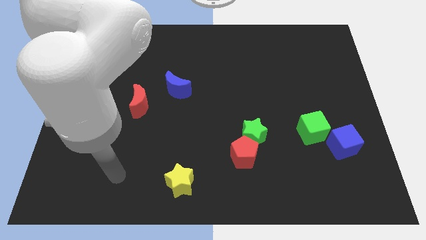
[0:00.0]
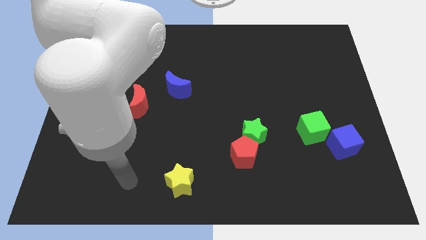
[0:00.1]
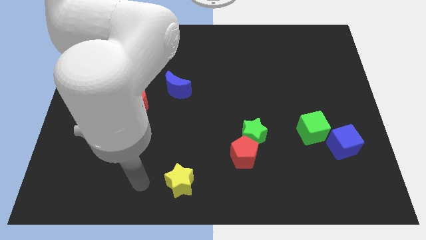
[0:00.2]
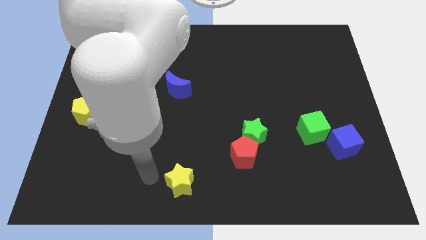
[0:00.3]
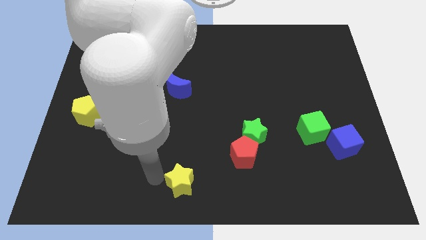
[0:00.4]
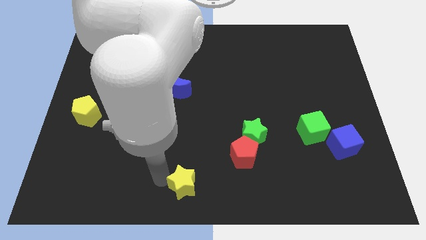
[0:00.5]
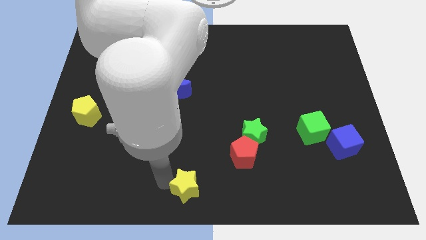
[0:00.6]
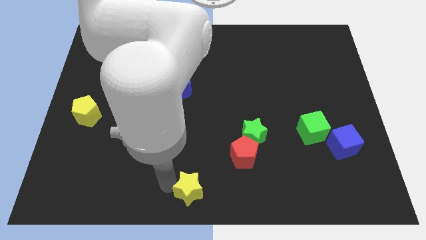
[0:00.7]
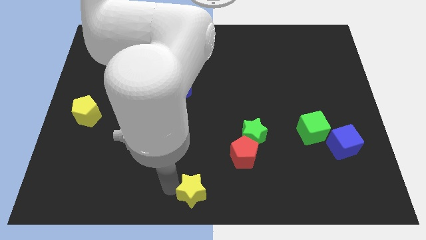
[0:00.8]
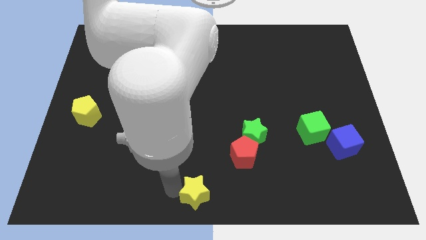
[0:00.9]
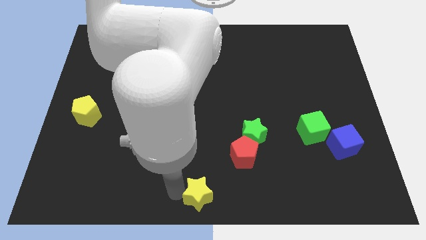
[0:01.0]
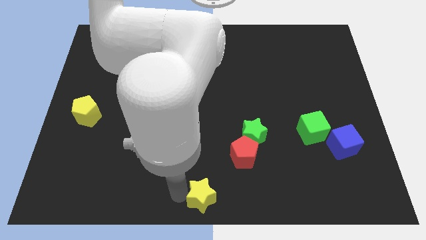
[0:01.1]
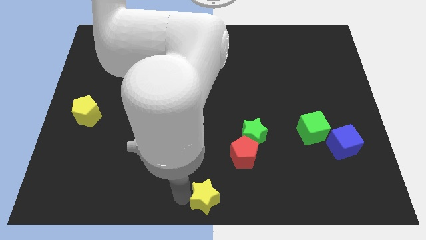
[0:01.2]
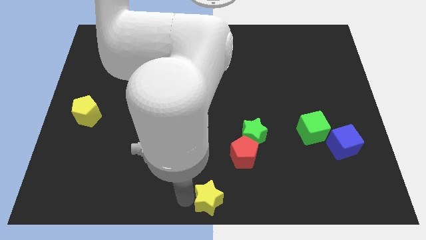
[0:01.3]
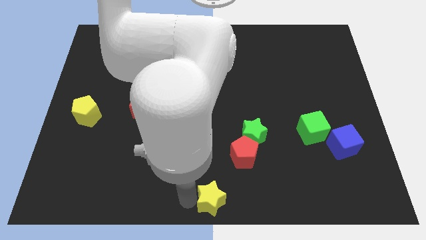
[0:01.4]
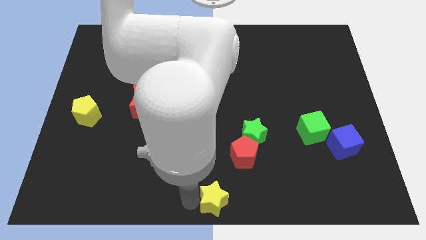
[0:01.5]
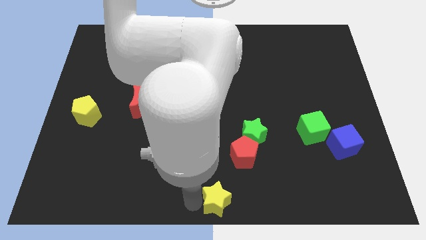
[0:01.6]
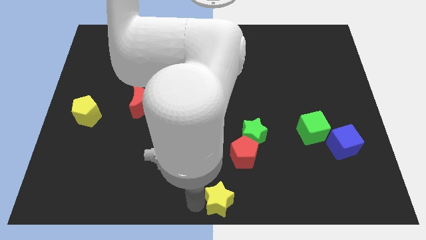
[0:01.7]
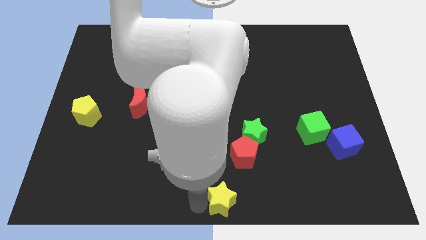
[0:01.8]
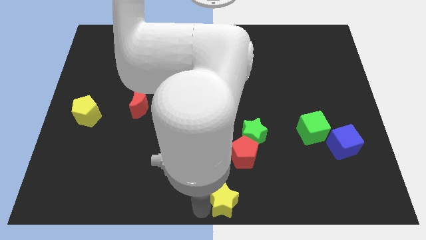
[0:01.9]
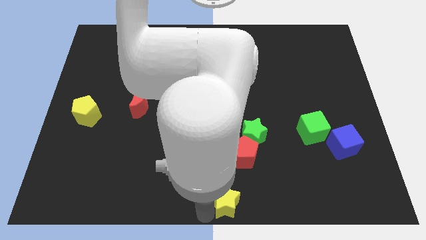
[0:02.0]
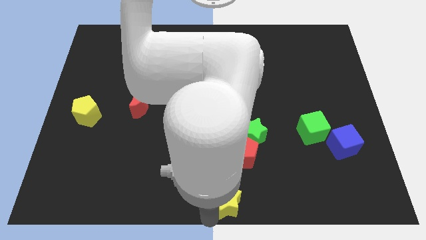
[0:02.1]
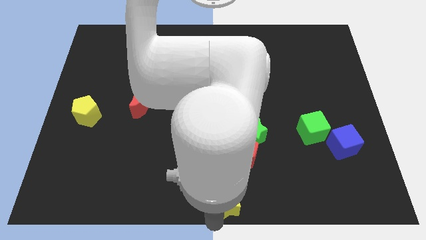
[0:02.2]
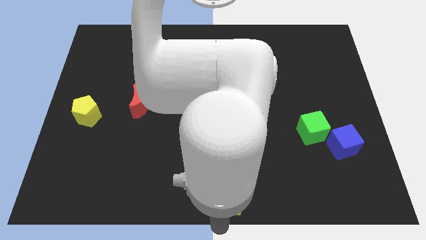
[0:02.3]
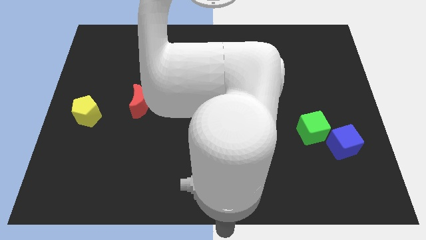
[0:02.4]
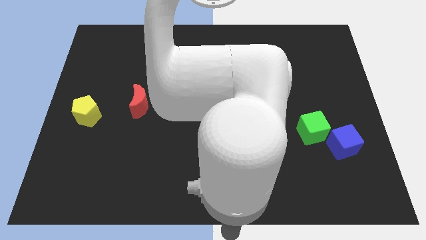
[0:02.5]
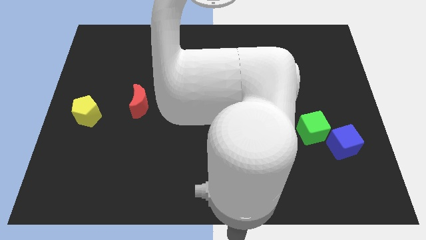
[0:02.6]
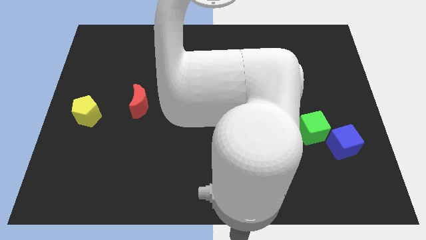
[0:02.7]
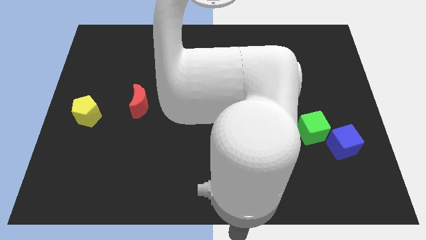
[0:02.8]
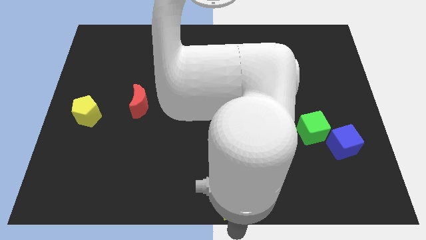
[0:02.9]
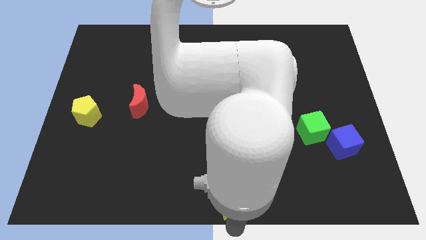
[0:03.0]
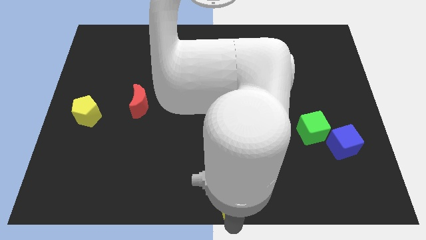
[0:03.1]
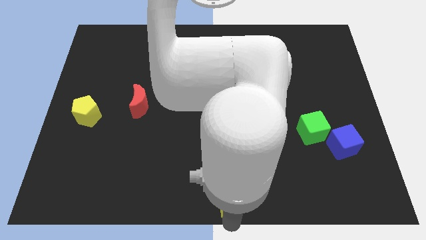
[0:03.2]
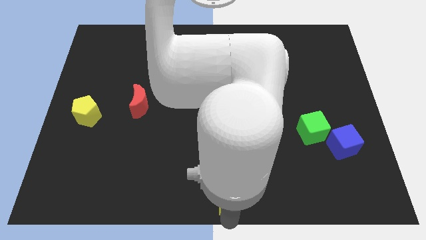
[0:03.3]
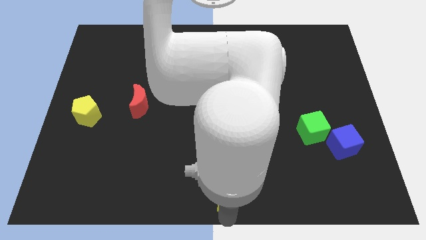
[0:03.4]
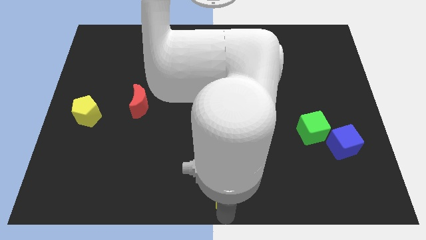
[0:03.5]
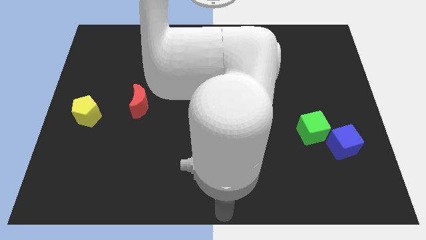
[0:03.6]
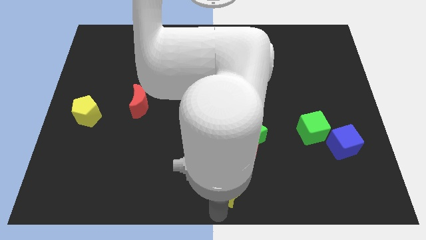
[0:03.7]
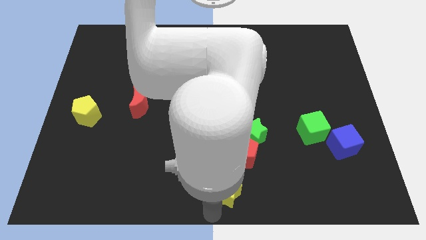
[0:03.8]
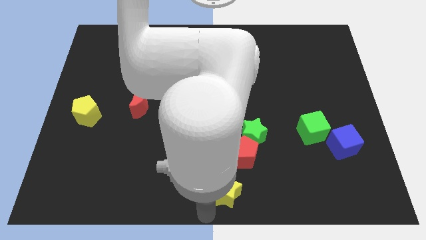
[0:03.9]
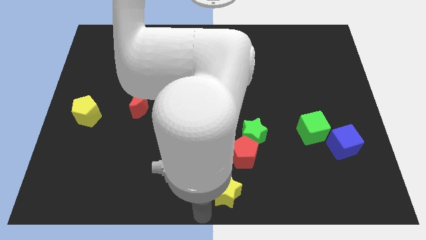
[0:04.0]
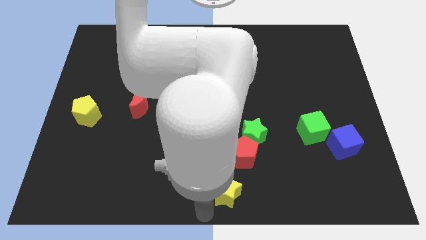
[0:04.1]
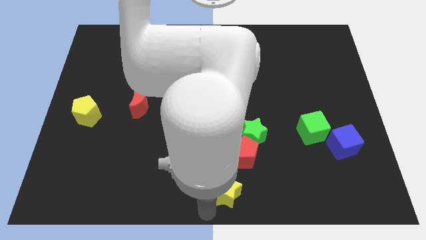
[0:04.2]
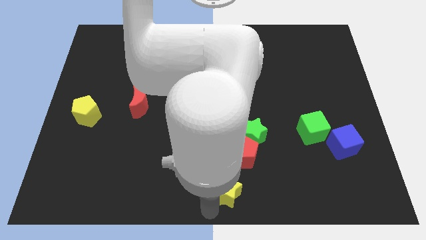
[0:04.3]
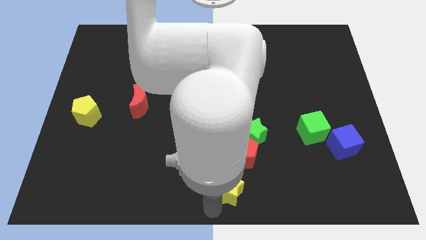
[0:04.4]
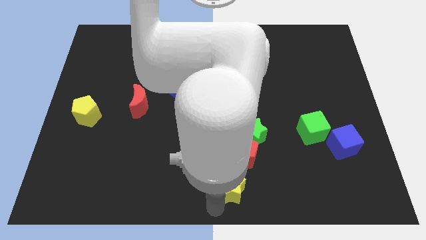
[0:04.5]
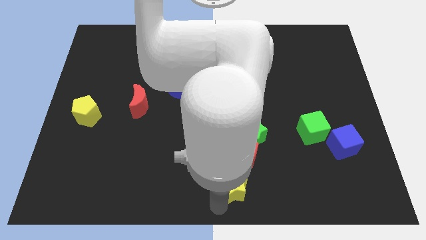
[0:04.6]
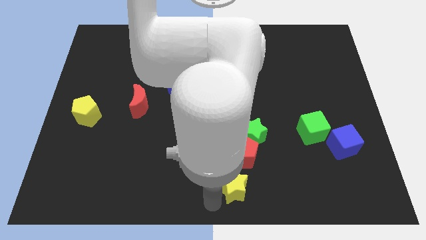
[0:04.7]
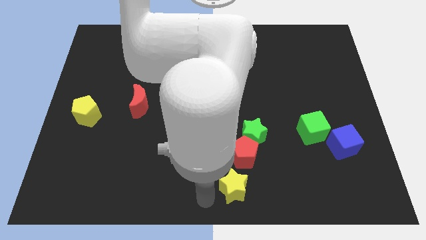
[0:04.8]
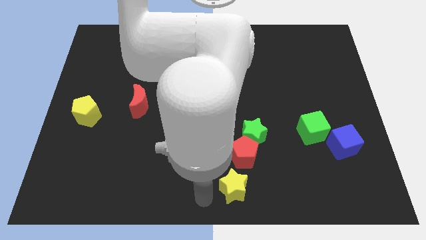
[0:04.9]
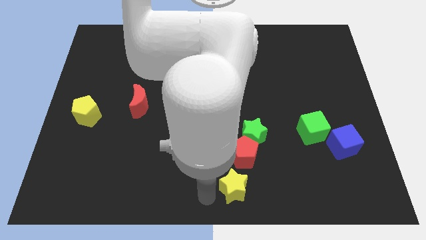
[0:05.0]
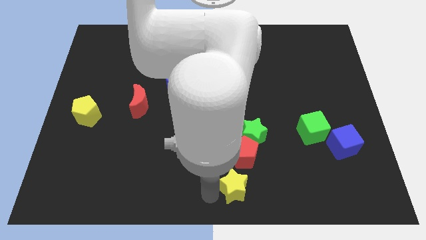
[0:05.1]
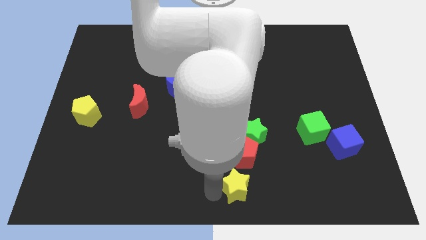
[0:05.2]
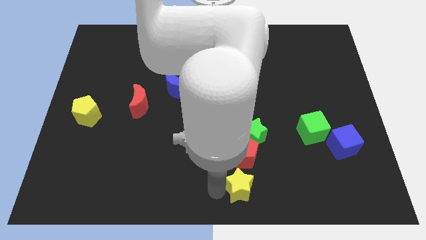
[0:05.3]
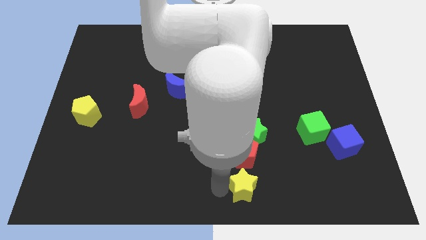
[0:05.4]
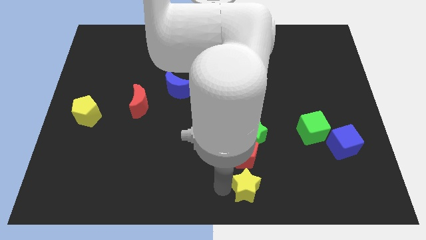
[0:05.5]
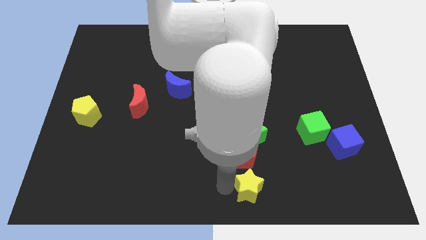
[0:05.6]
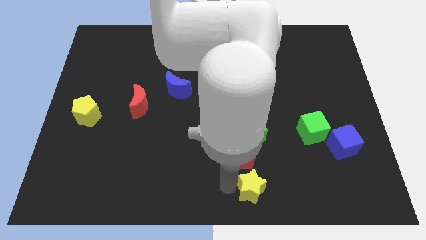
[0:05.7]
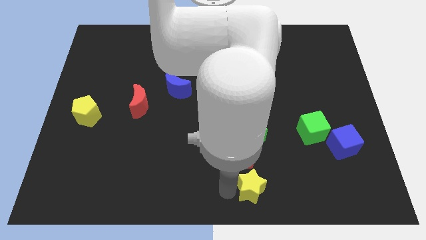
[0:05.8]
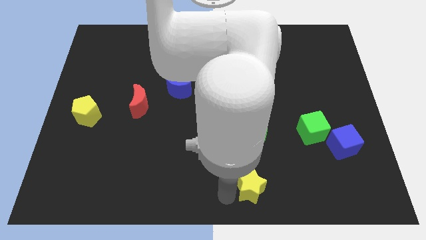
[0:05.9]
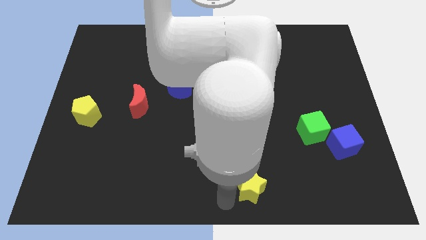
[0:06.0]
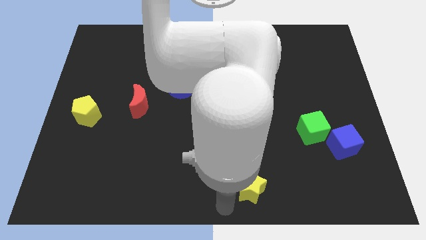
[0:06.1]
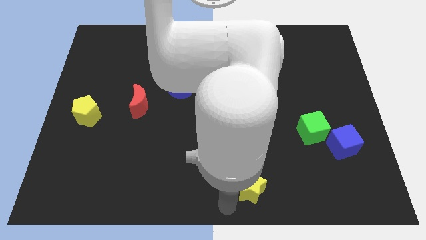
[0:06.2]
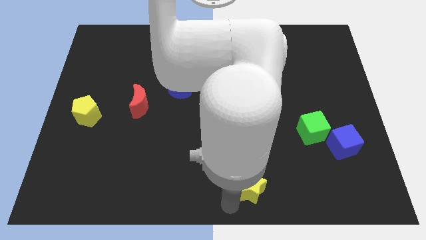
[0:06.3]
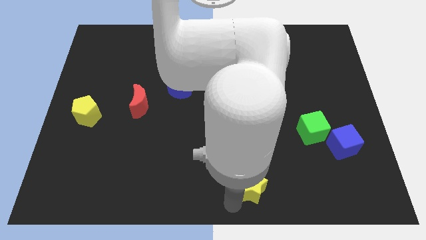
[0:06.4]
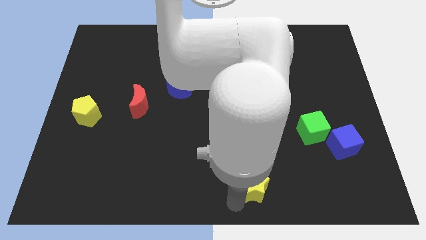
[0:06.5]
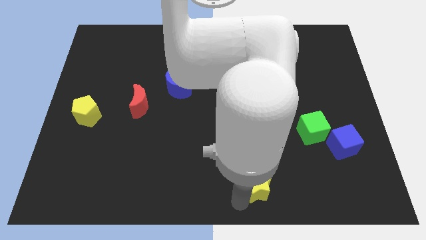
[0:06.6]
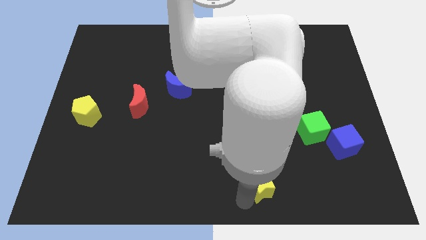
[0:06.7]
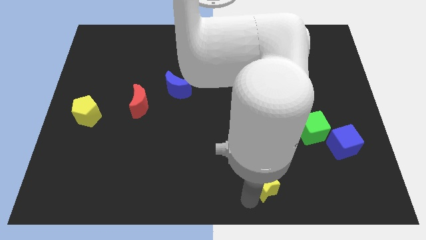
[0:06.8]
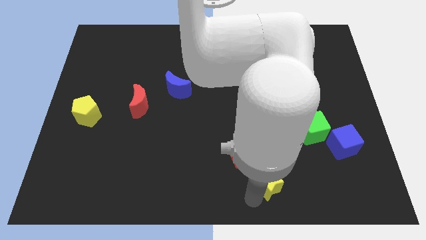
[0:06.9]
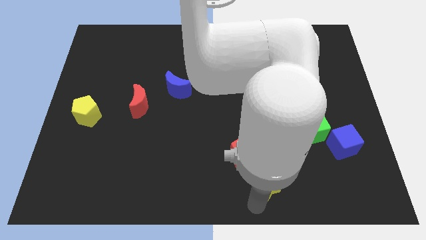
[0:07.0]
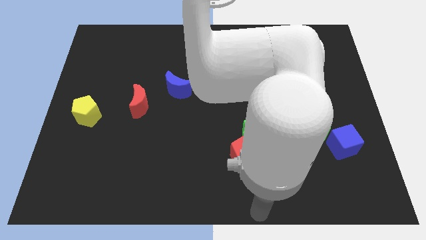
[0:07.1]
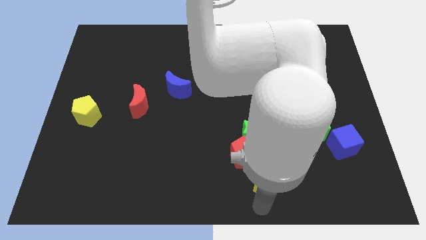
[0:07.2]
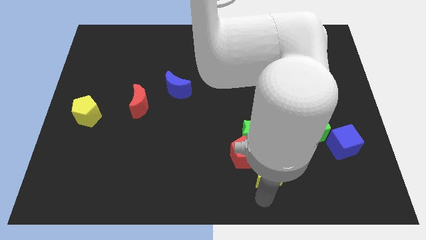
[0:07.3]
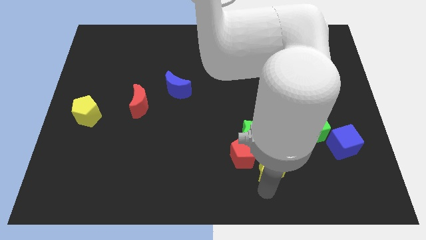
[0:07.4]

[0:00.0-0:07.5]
push the yellow star to the right side of the red pentagon
